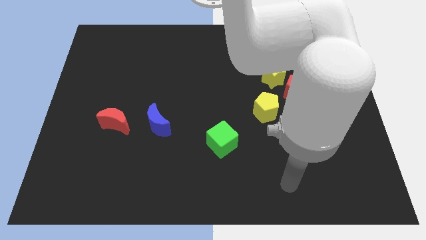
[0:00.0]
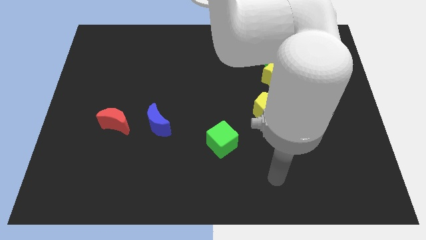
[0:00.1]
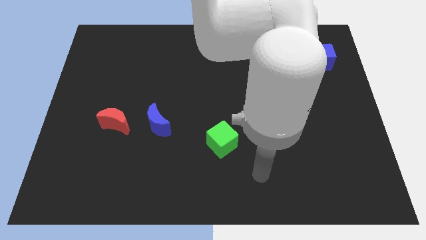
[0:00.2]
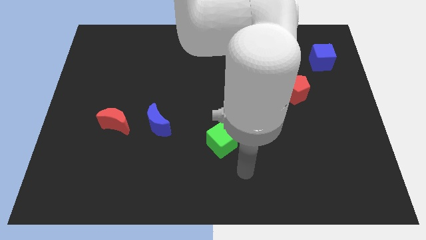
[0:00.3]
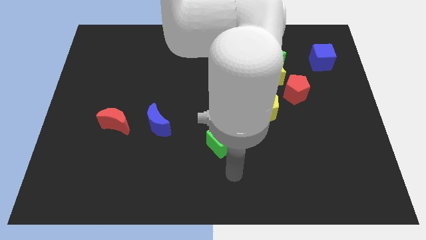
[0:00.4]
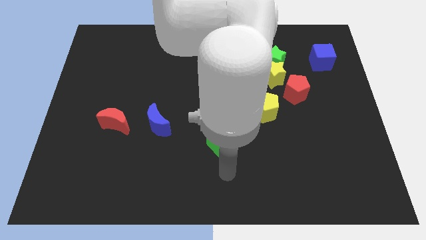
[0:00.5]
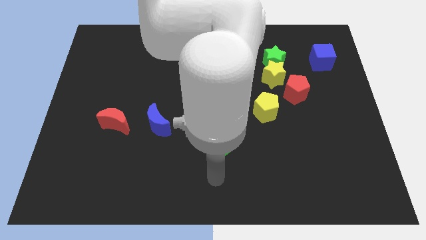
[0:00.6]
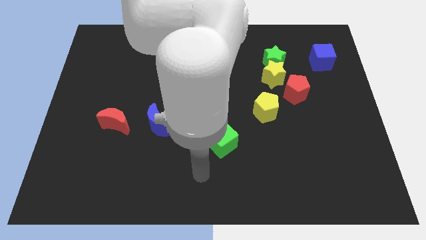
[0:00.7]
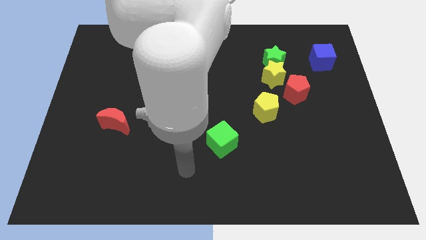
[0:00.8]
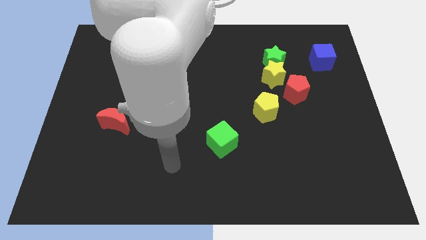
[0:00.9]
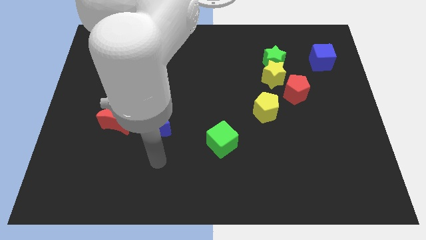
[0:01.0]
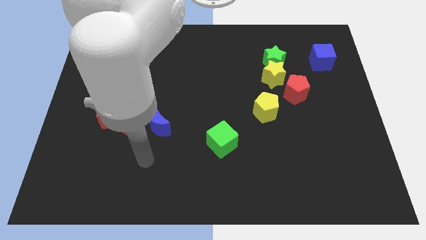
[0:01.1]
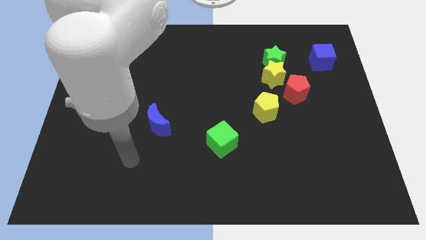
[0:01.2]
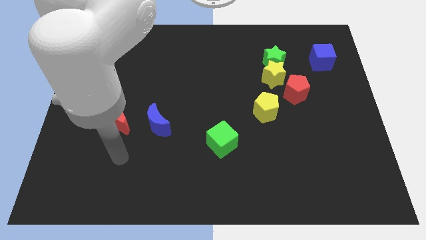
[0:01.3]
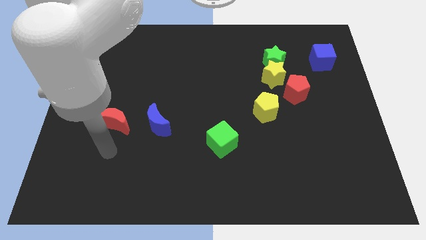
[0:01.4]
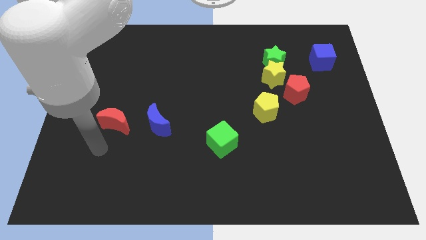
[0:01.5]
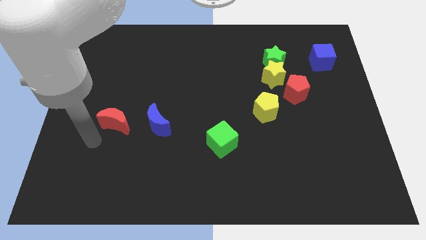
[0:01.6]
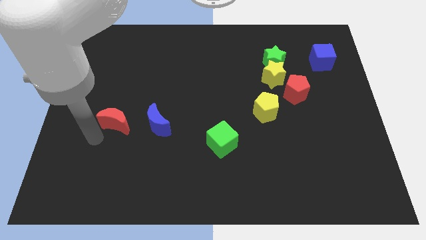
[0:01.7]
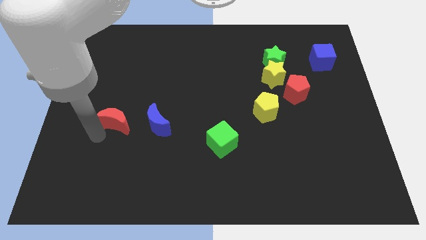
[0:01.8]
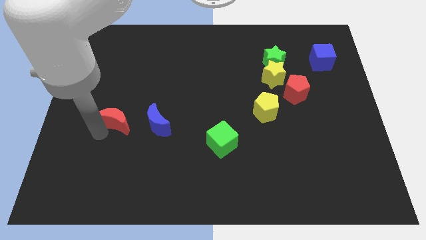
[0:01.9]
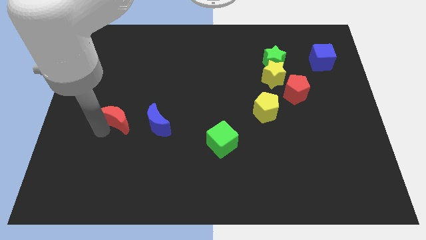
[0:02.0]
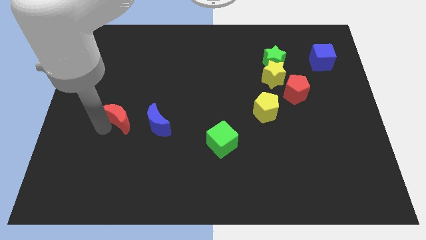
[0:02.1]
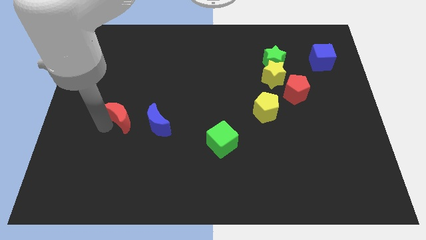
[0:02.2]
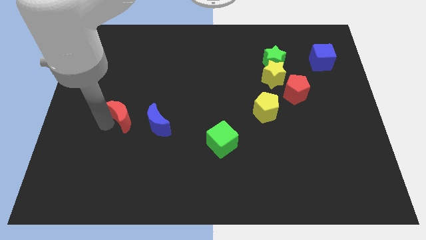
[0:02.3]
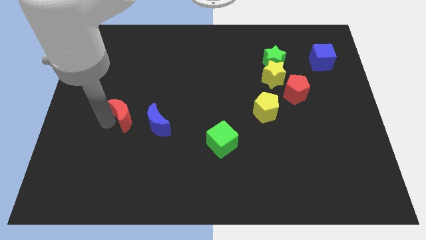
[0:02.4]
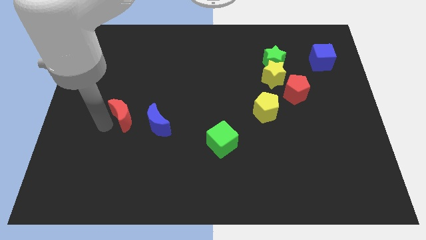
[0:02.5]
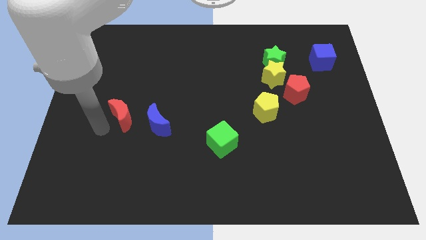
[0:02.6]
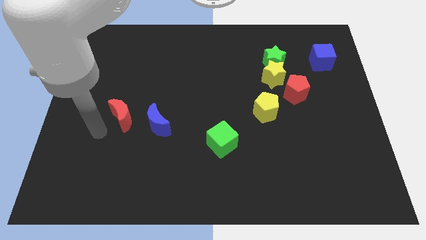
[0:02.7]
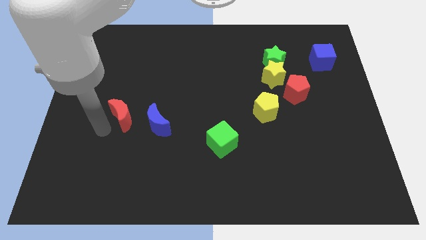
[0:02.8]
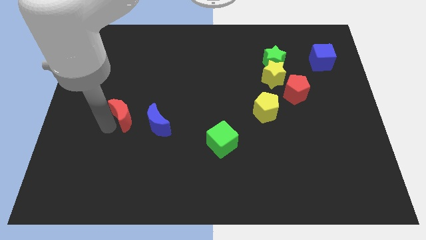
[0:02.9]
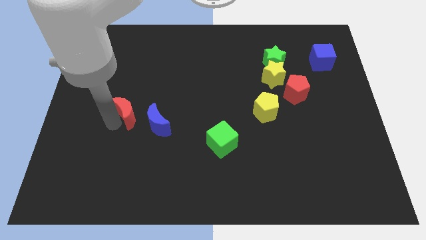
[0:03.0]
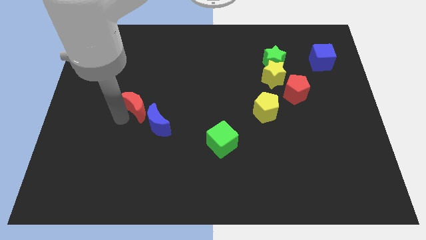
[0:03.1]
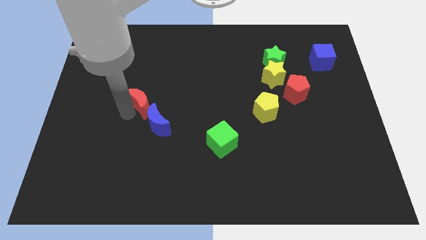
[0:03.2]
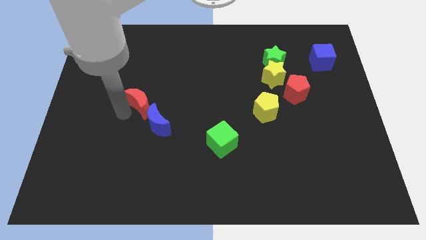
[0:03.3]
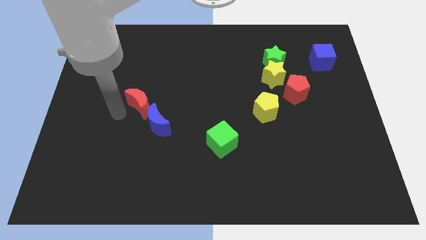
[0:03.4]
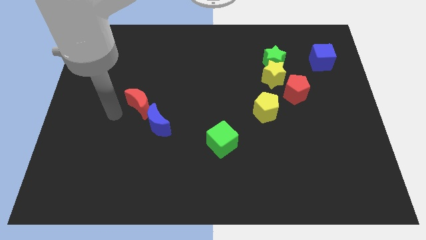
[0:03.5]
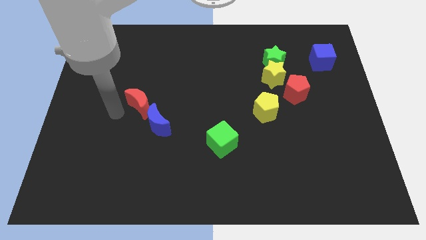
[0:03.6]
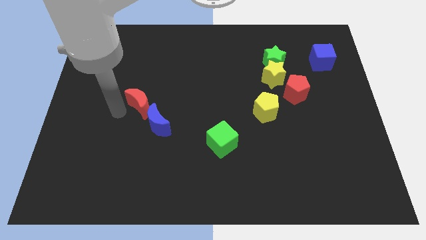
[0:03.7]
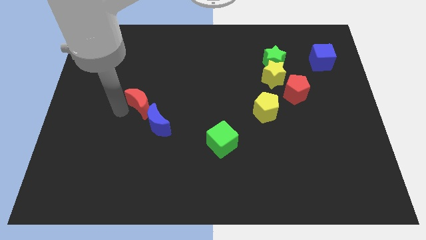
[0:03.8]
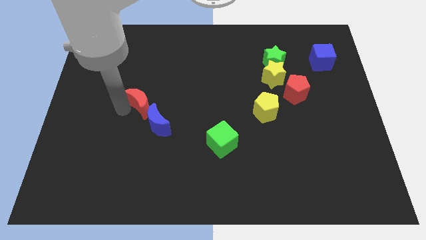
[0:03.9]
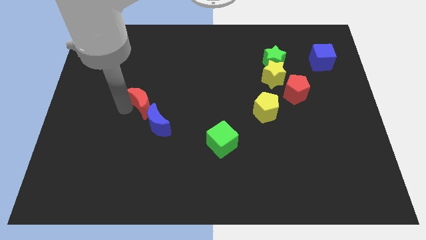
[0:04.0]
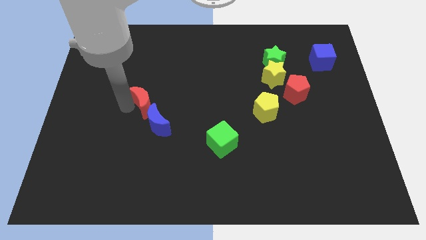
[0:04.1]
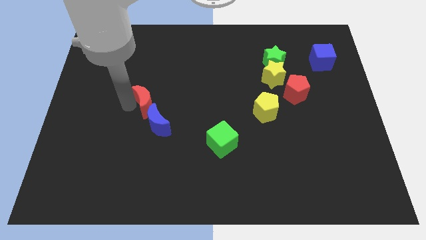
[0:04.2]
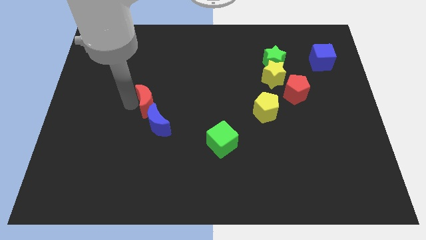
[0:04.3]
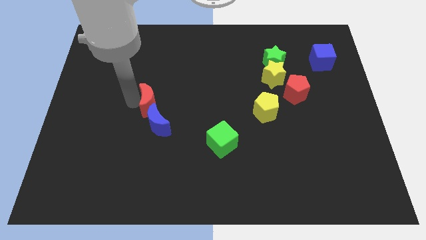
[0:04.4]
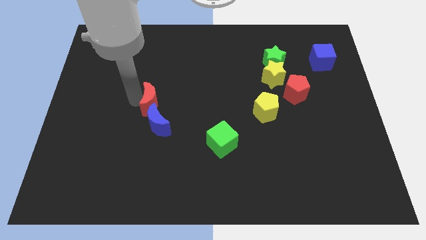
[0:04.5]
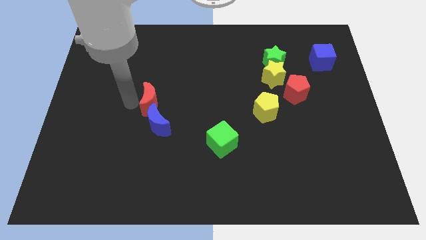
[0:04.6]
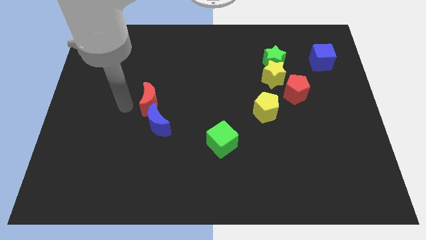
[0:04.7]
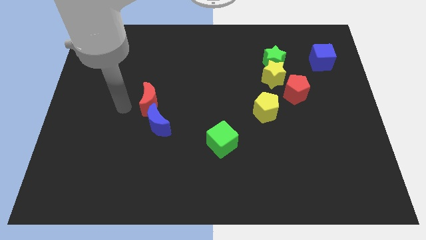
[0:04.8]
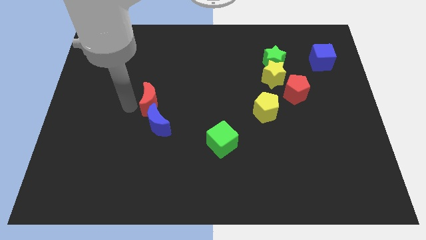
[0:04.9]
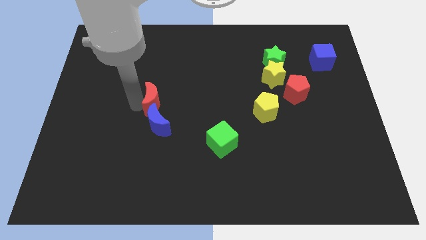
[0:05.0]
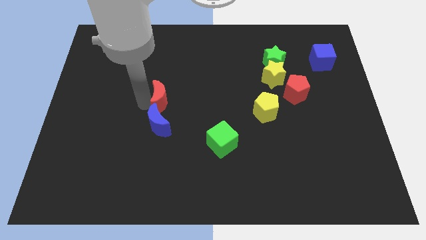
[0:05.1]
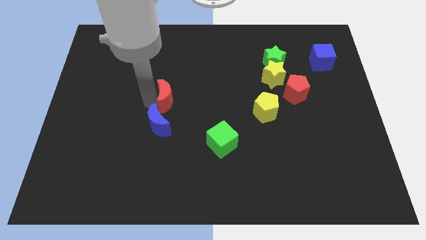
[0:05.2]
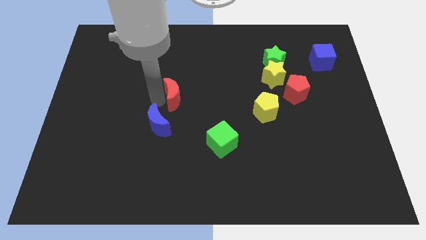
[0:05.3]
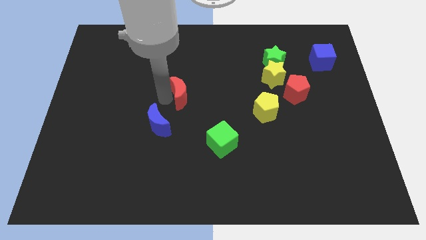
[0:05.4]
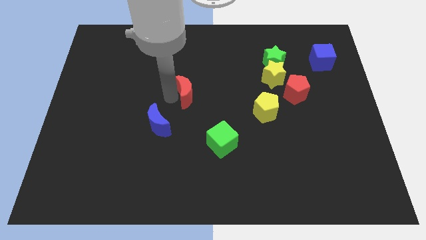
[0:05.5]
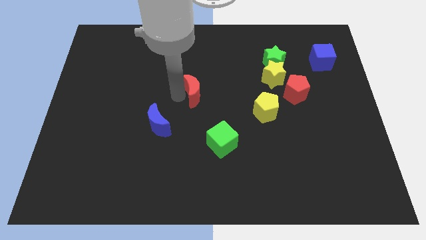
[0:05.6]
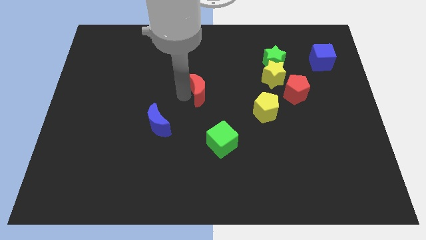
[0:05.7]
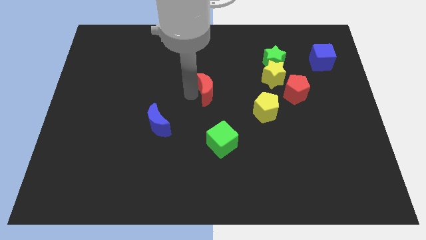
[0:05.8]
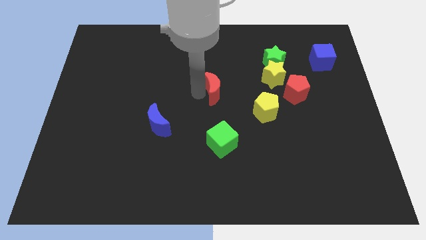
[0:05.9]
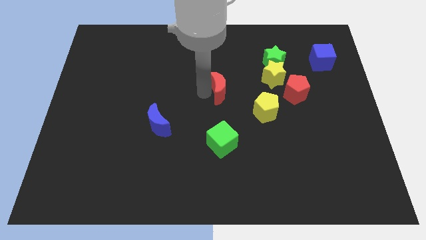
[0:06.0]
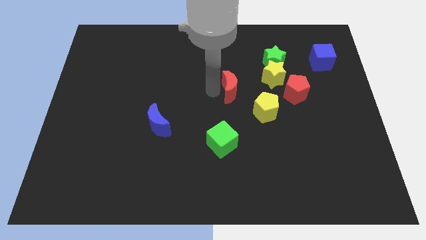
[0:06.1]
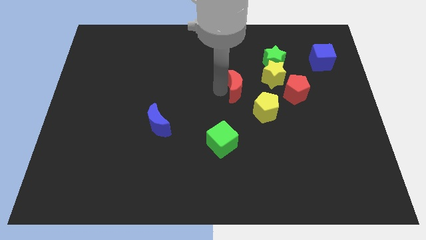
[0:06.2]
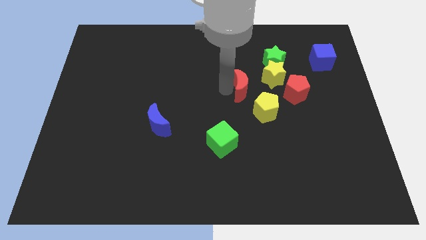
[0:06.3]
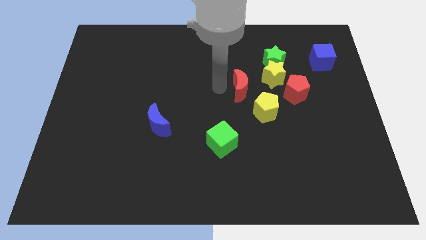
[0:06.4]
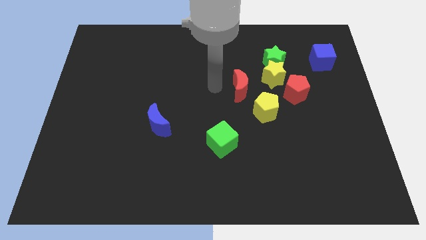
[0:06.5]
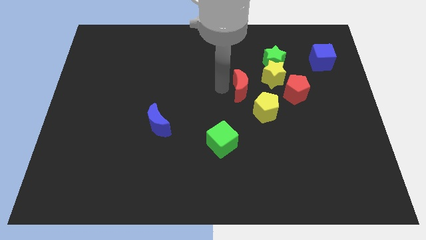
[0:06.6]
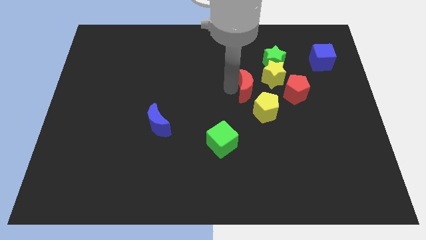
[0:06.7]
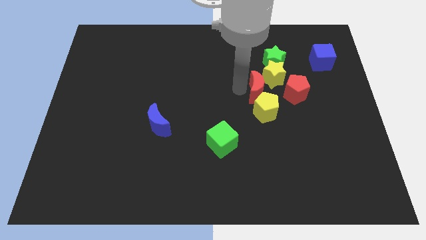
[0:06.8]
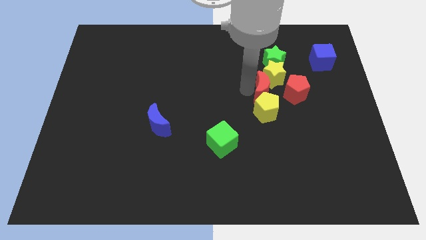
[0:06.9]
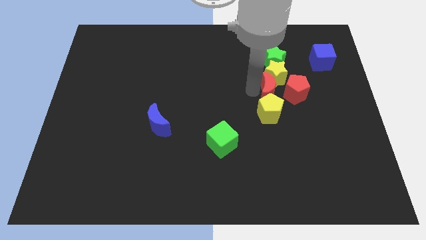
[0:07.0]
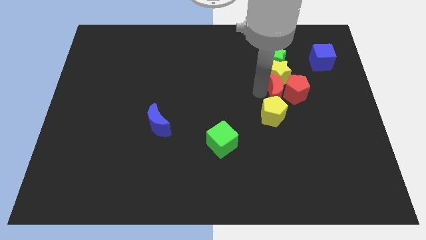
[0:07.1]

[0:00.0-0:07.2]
push the red moon next to the red pentagon
